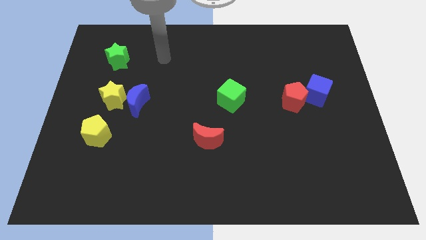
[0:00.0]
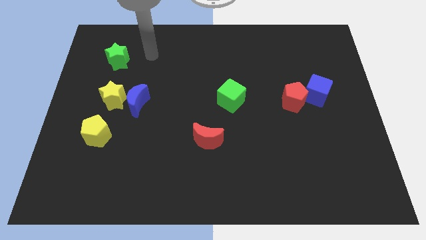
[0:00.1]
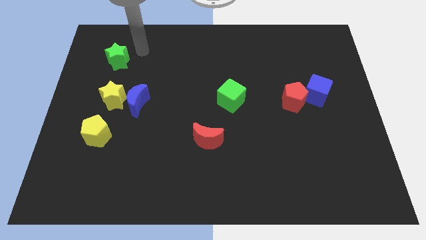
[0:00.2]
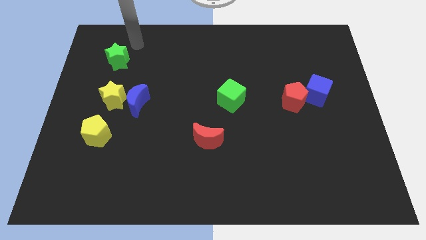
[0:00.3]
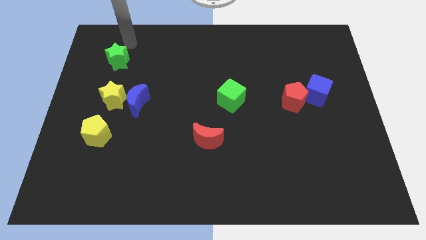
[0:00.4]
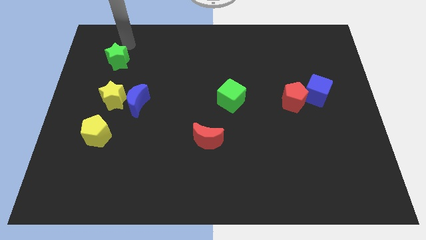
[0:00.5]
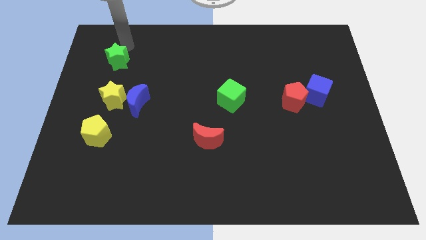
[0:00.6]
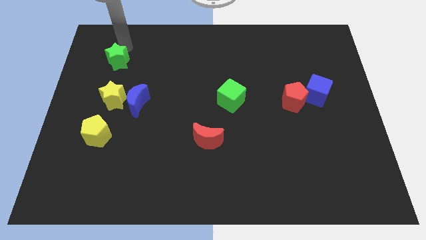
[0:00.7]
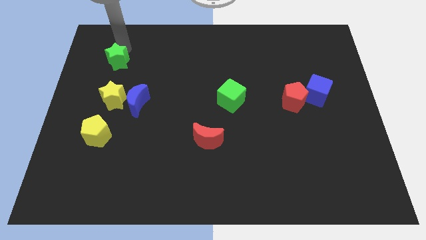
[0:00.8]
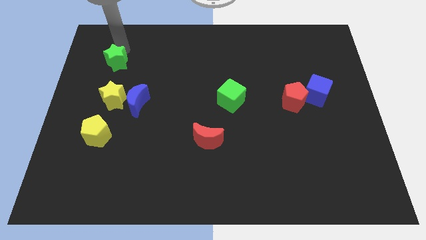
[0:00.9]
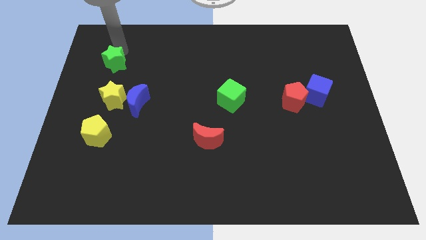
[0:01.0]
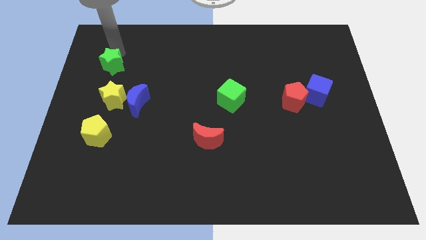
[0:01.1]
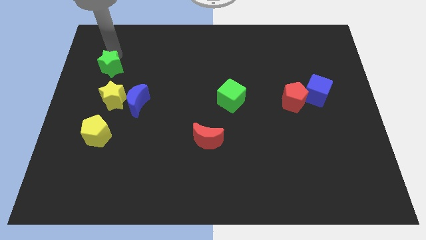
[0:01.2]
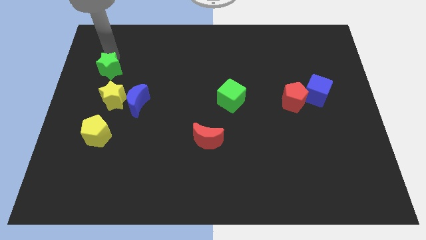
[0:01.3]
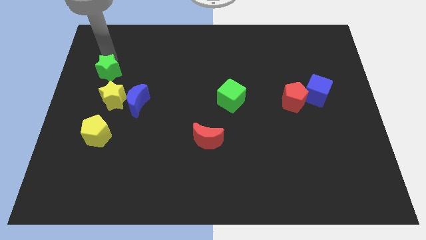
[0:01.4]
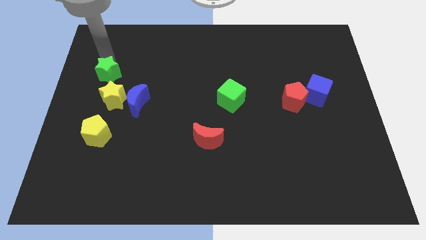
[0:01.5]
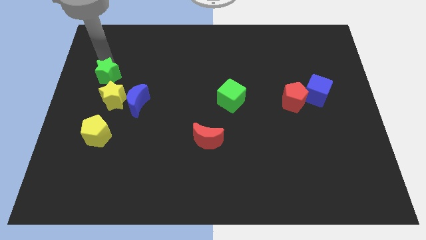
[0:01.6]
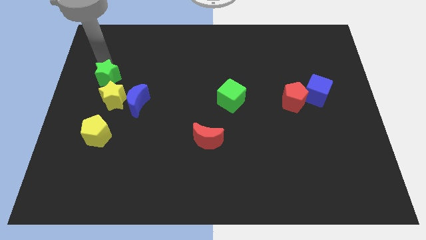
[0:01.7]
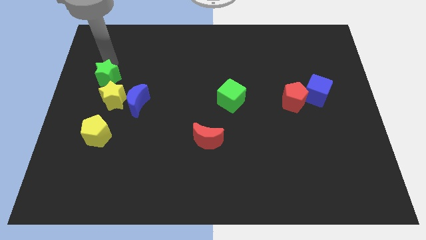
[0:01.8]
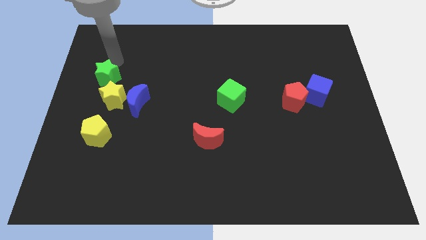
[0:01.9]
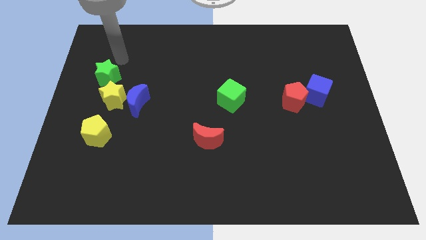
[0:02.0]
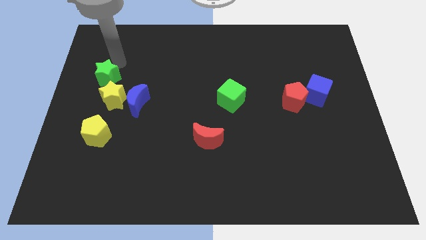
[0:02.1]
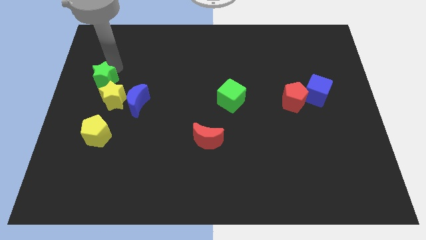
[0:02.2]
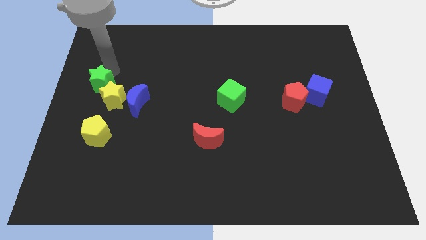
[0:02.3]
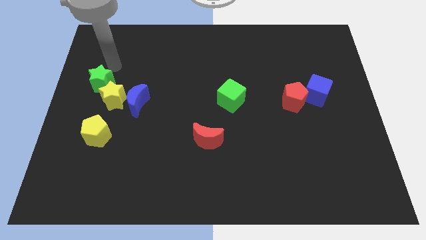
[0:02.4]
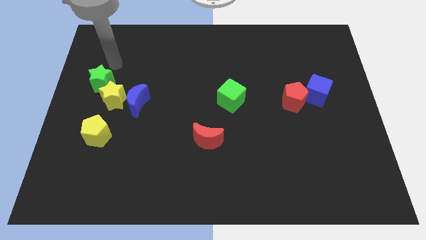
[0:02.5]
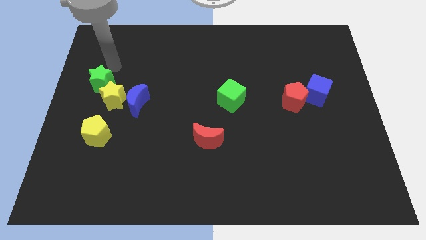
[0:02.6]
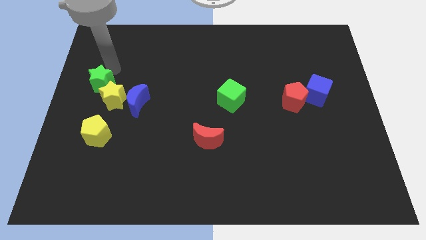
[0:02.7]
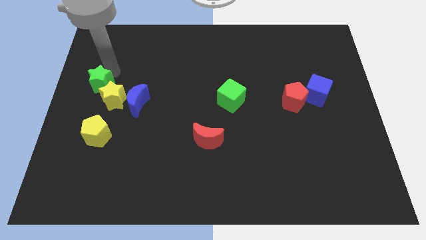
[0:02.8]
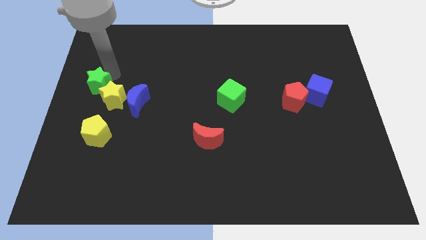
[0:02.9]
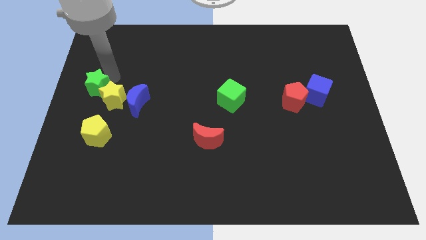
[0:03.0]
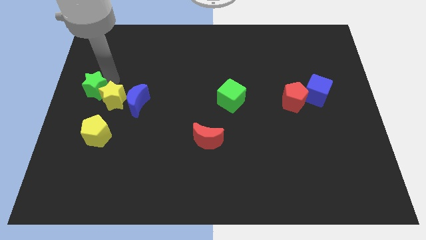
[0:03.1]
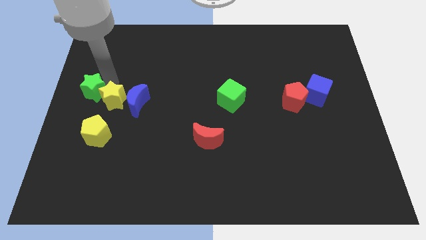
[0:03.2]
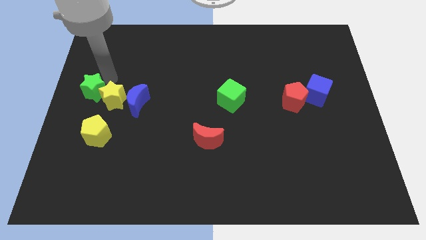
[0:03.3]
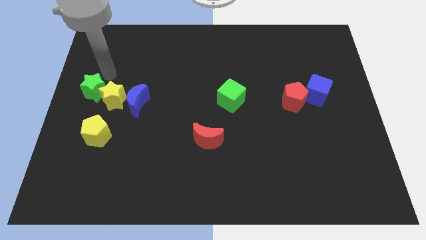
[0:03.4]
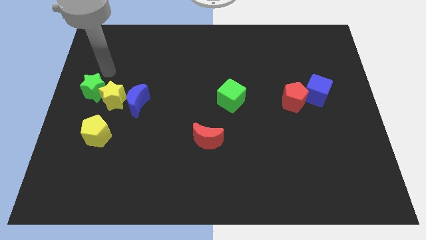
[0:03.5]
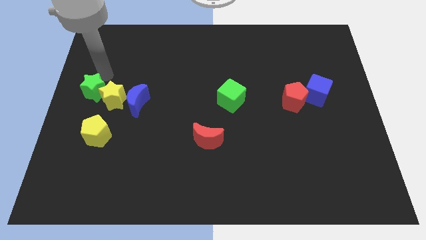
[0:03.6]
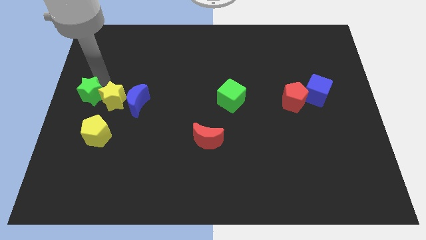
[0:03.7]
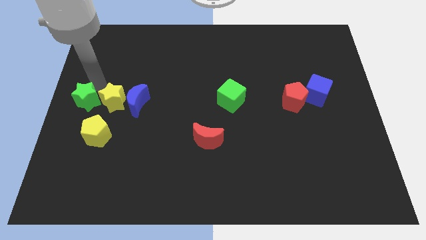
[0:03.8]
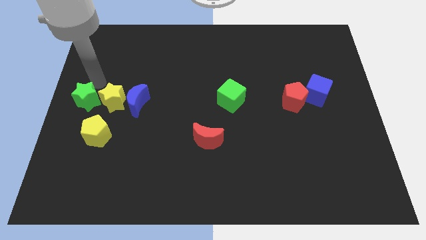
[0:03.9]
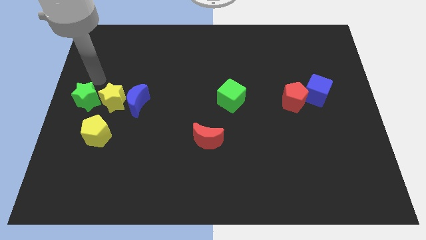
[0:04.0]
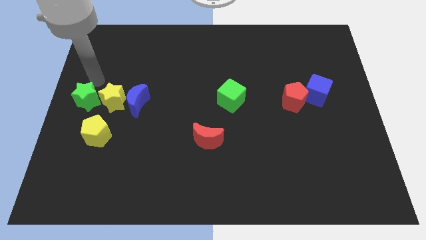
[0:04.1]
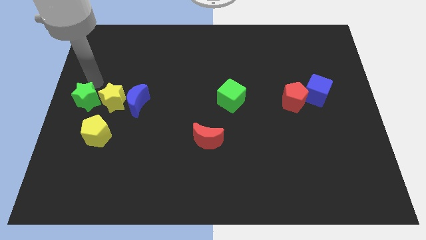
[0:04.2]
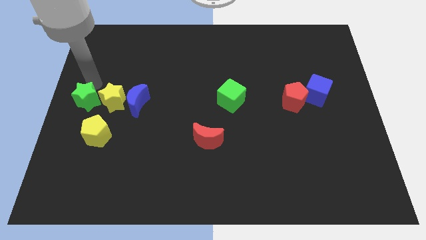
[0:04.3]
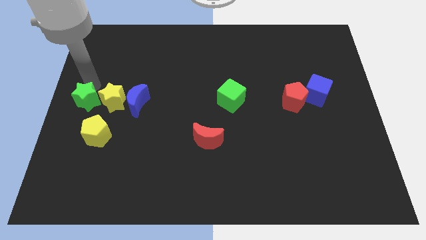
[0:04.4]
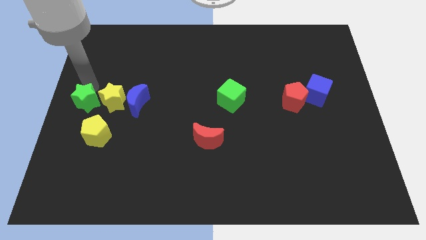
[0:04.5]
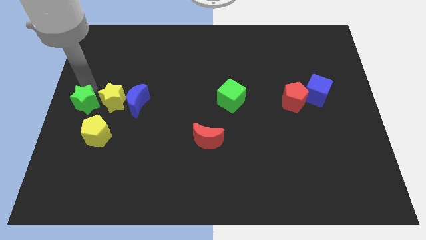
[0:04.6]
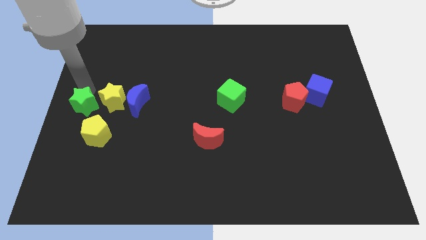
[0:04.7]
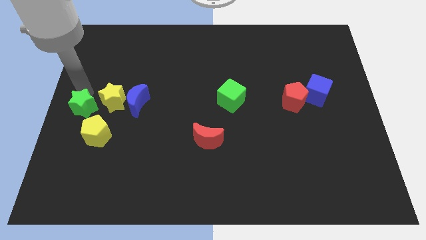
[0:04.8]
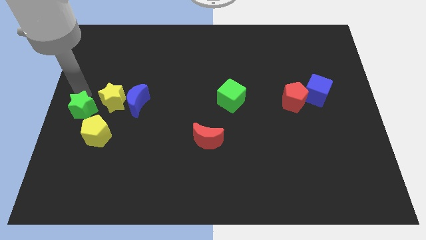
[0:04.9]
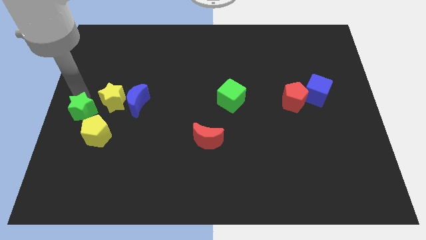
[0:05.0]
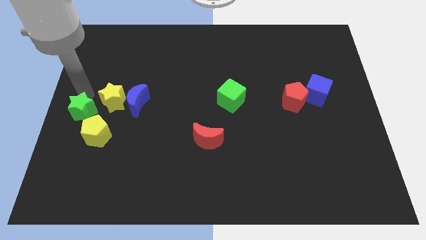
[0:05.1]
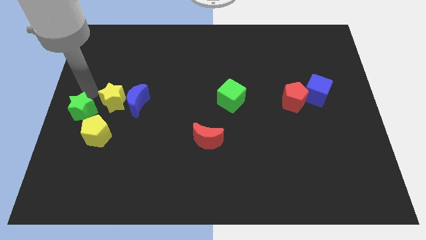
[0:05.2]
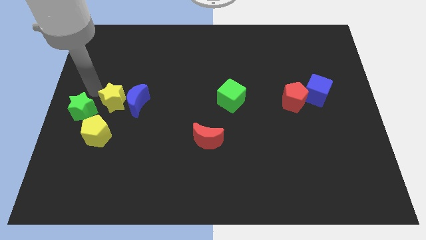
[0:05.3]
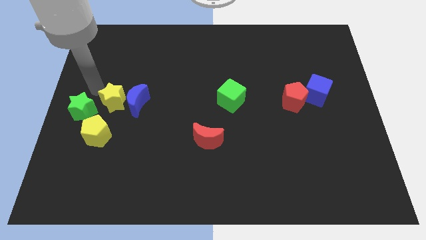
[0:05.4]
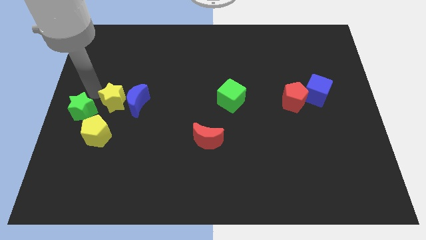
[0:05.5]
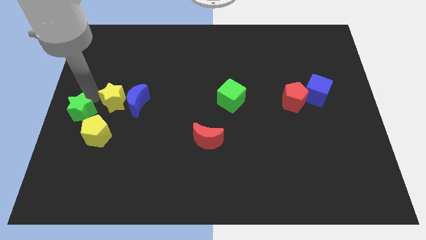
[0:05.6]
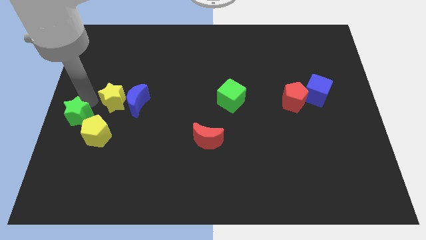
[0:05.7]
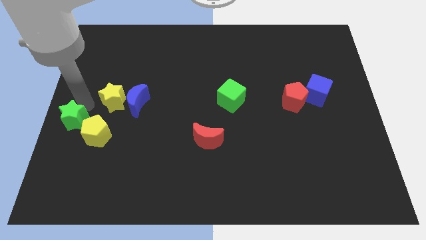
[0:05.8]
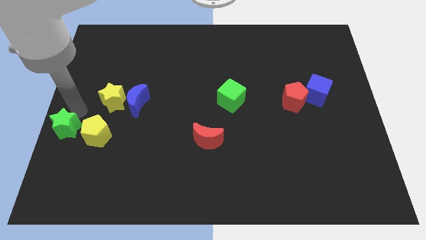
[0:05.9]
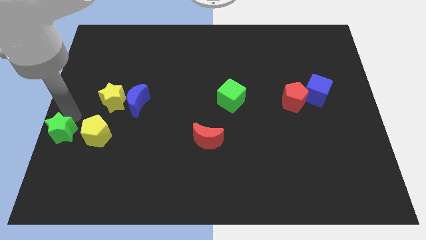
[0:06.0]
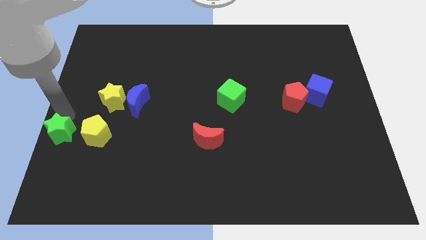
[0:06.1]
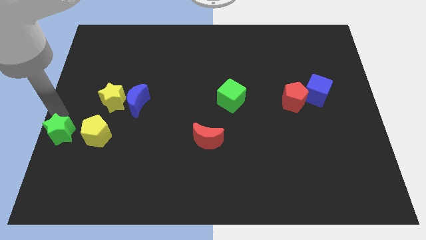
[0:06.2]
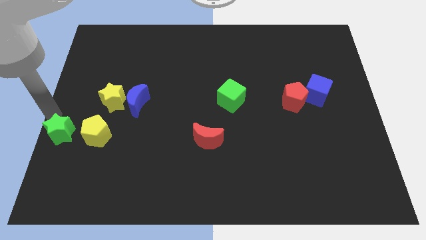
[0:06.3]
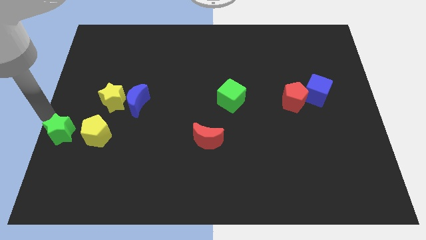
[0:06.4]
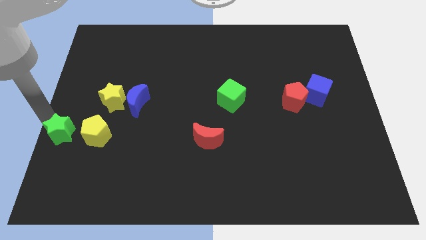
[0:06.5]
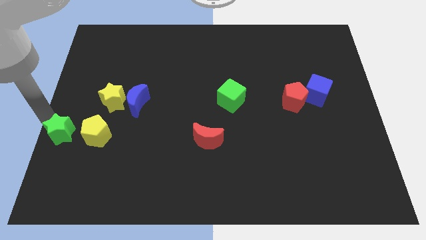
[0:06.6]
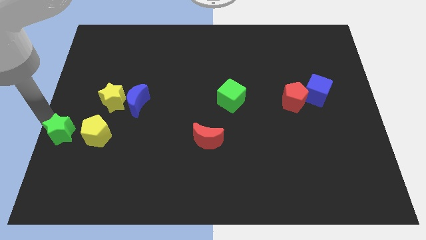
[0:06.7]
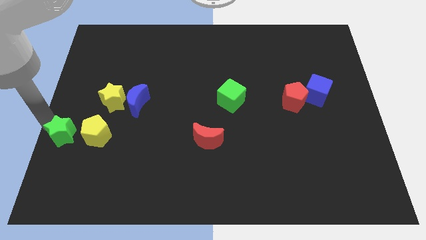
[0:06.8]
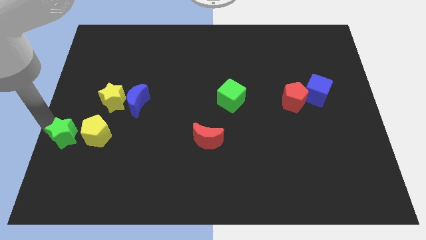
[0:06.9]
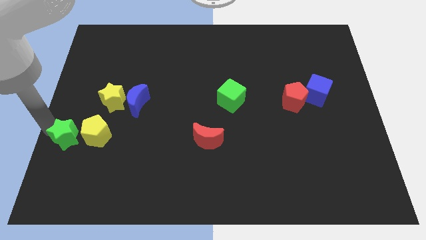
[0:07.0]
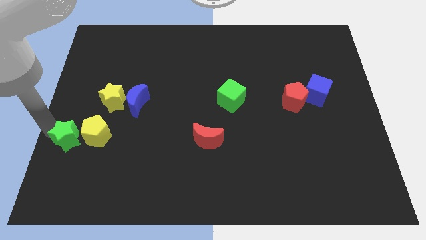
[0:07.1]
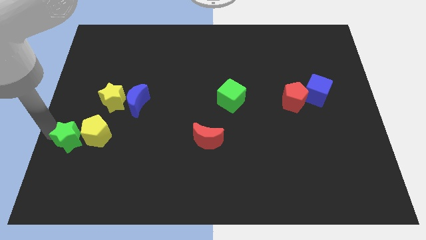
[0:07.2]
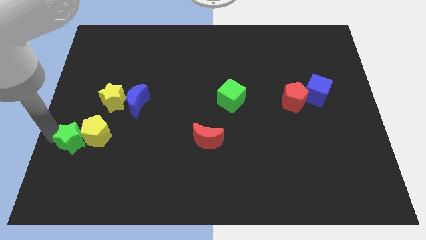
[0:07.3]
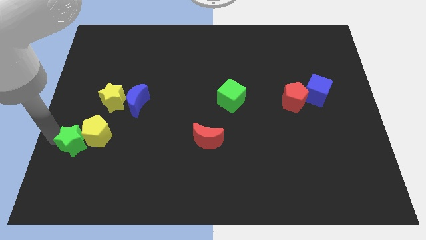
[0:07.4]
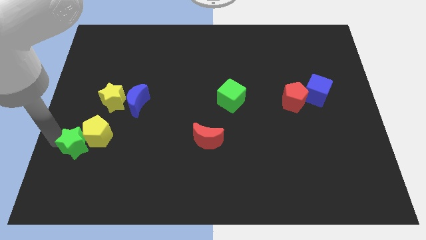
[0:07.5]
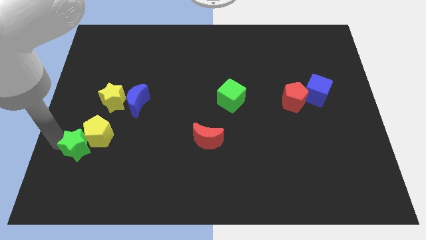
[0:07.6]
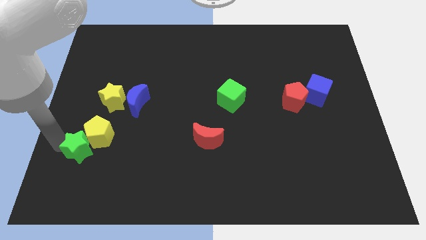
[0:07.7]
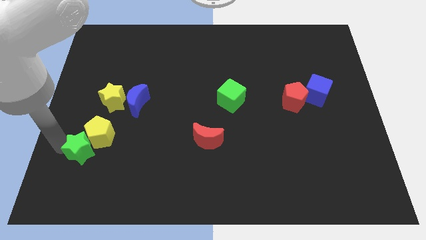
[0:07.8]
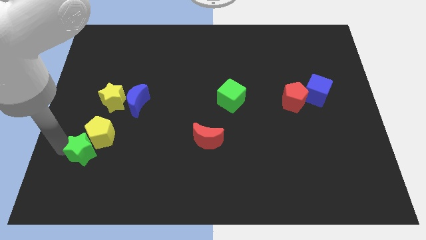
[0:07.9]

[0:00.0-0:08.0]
put the green star below the yellow star
